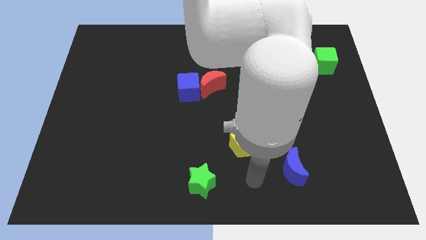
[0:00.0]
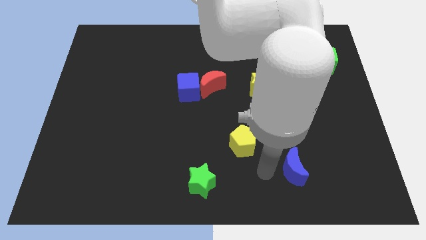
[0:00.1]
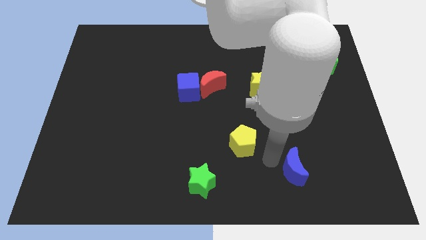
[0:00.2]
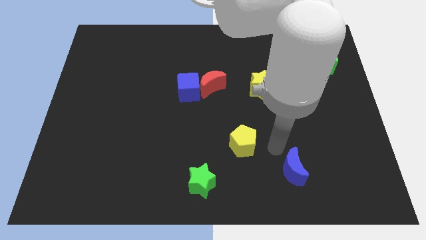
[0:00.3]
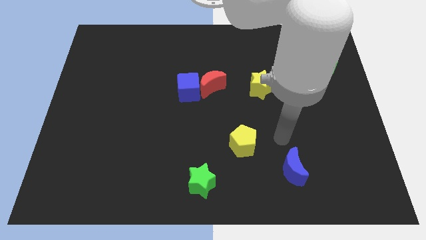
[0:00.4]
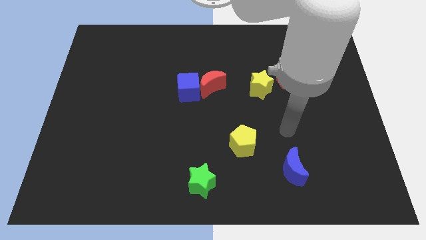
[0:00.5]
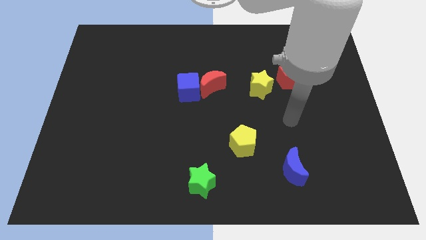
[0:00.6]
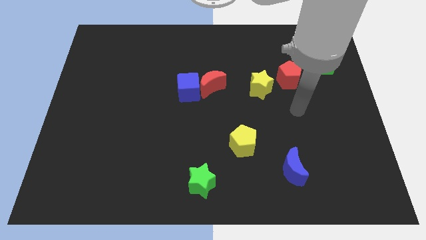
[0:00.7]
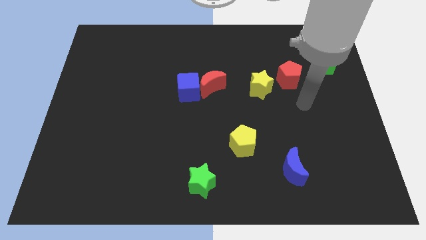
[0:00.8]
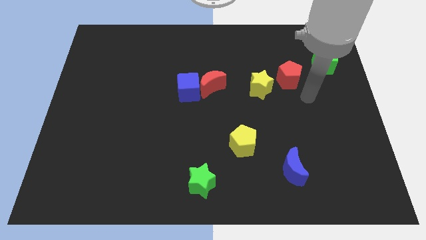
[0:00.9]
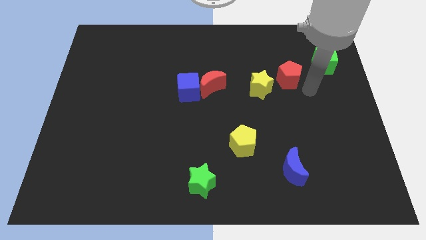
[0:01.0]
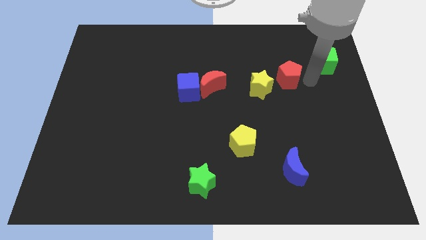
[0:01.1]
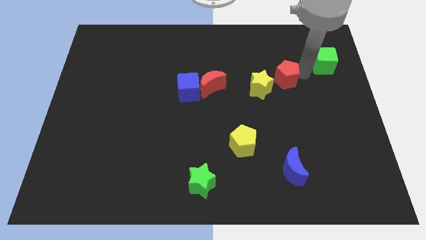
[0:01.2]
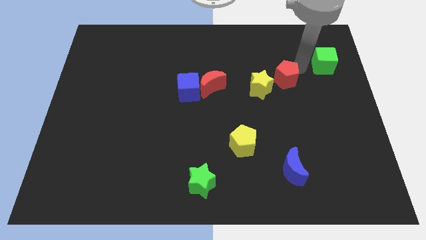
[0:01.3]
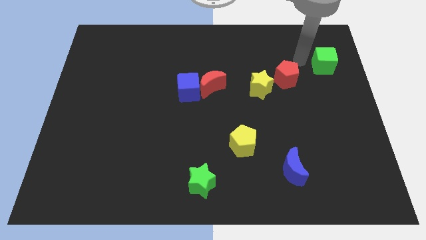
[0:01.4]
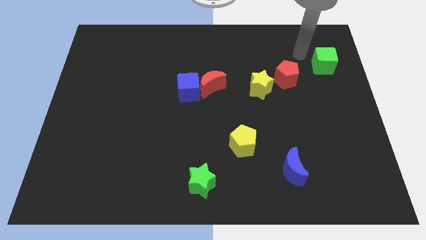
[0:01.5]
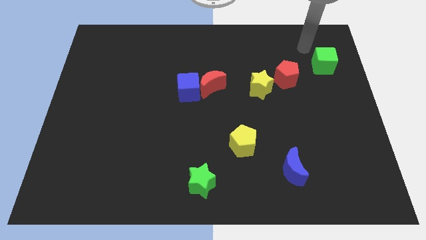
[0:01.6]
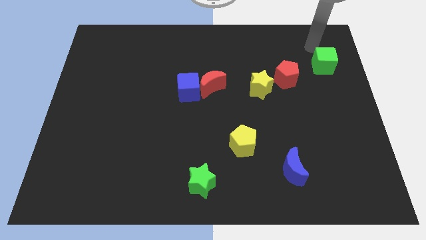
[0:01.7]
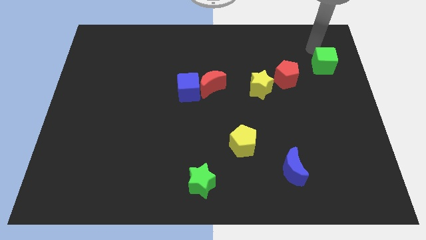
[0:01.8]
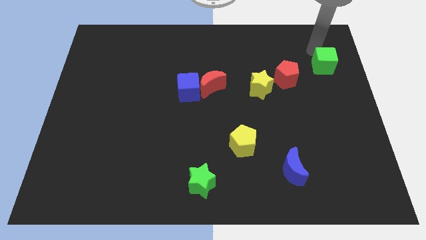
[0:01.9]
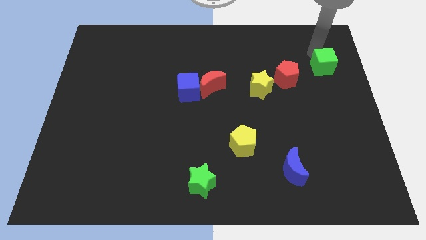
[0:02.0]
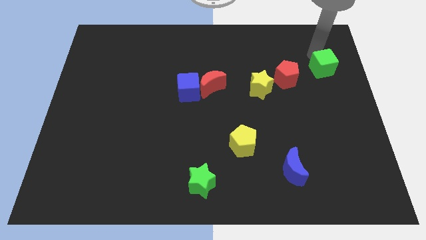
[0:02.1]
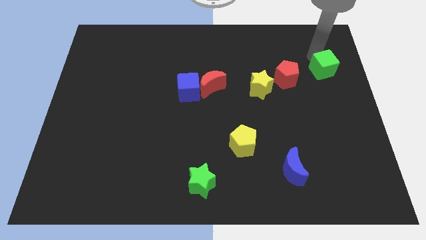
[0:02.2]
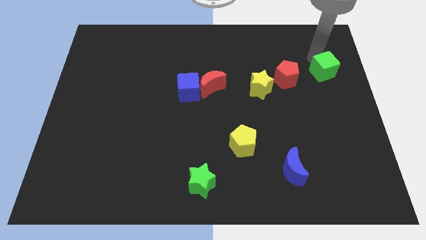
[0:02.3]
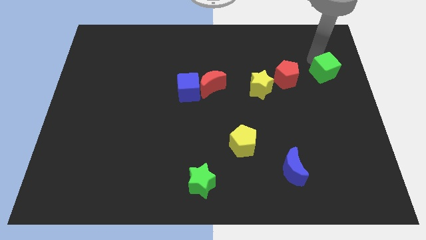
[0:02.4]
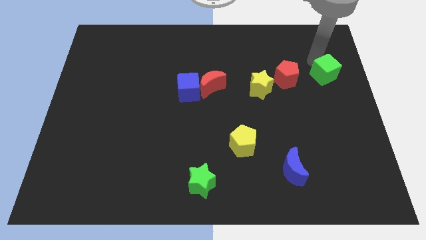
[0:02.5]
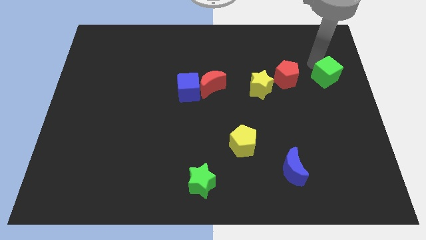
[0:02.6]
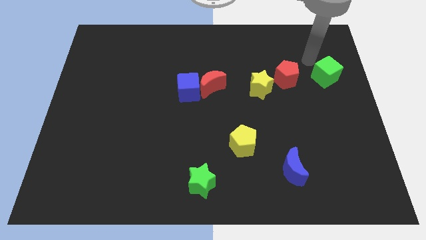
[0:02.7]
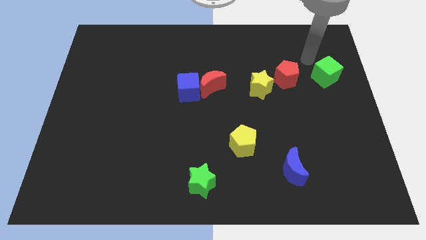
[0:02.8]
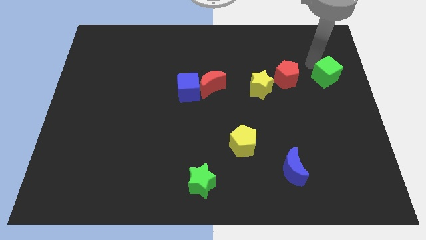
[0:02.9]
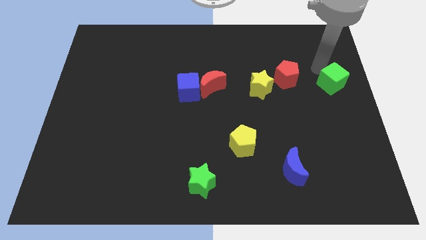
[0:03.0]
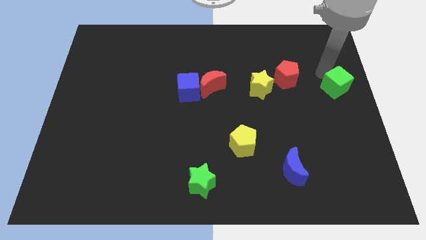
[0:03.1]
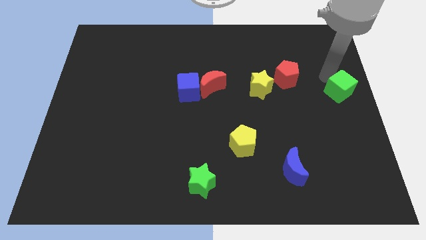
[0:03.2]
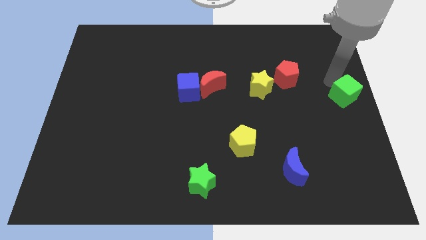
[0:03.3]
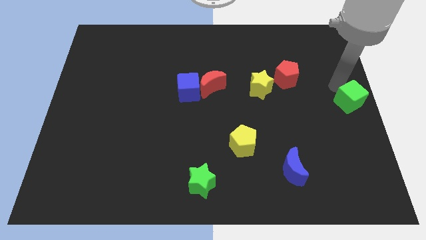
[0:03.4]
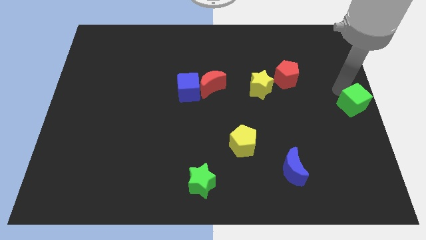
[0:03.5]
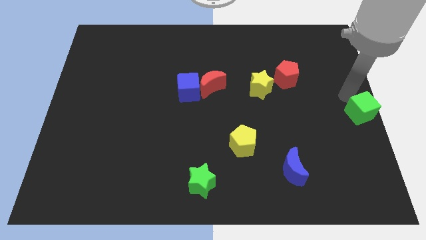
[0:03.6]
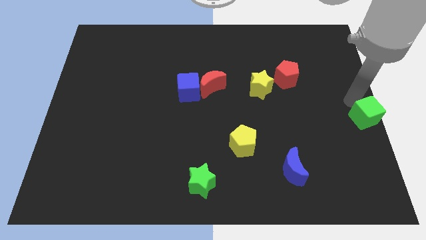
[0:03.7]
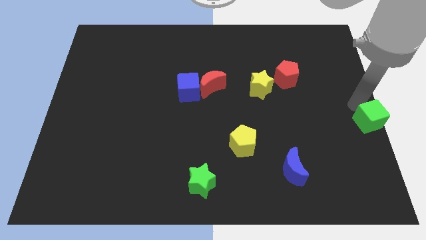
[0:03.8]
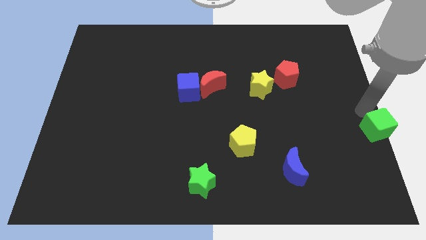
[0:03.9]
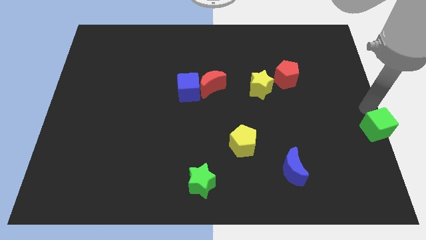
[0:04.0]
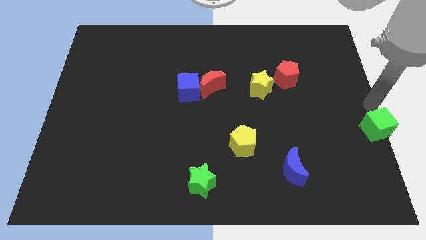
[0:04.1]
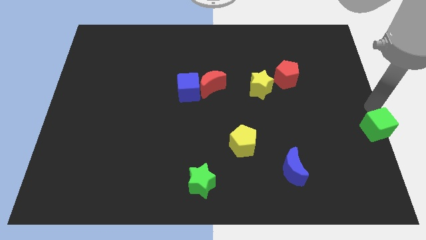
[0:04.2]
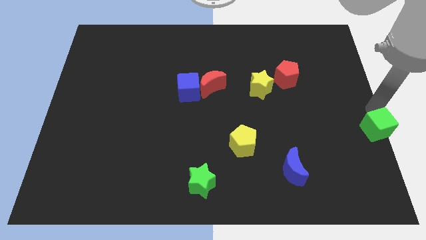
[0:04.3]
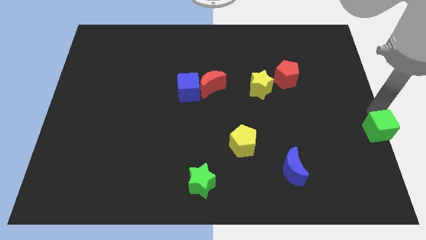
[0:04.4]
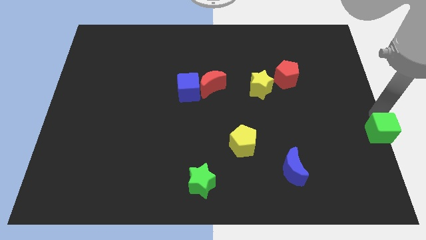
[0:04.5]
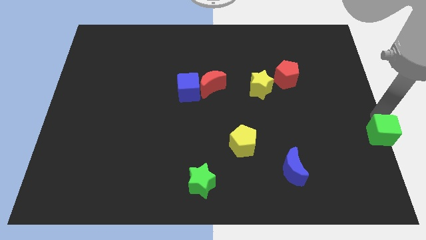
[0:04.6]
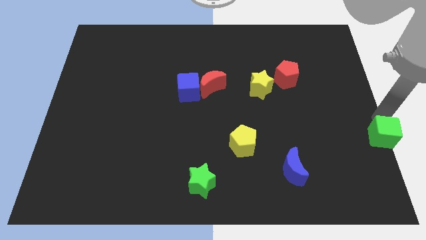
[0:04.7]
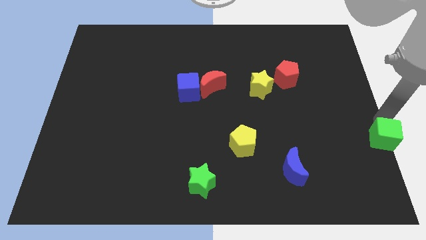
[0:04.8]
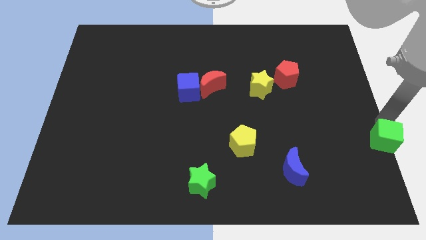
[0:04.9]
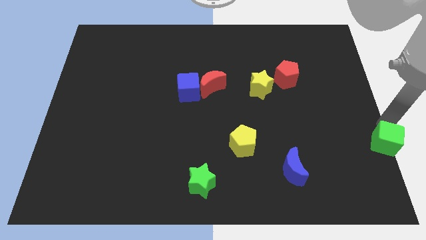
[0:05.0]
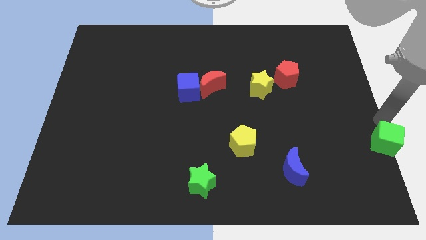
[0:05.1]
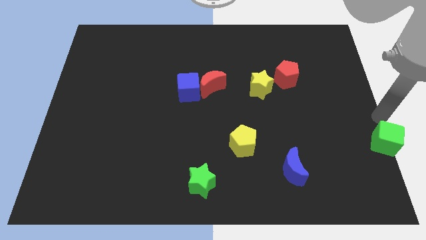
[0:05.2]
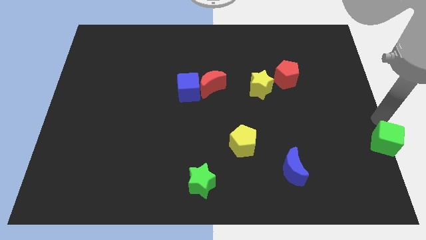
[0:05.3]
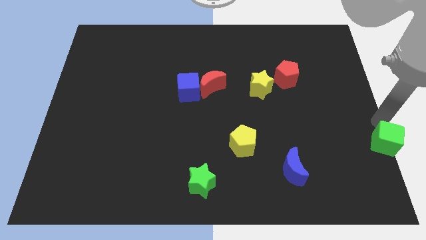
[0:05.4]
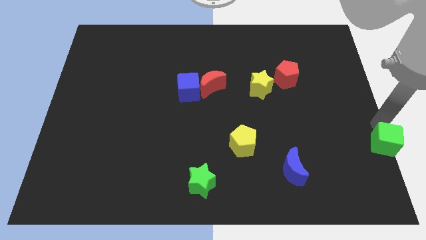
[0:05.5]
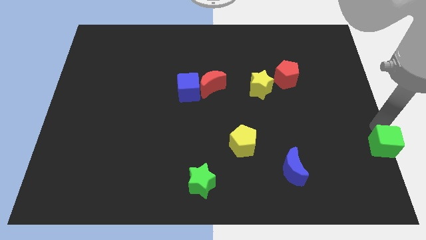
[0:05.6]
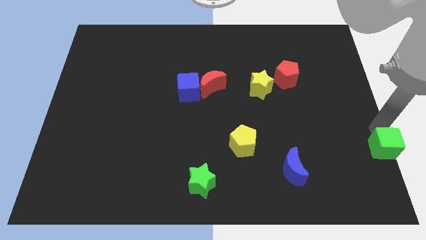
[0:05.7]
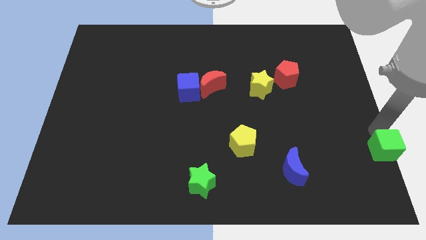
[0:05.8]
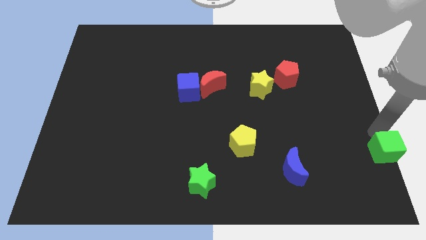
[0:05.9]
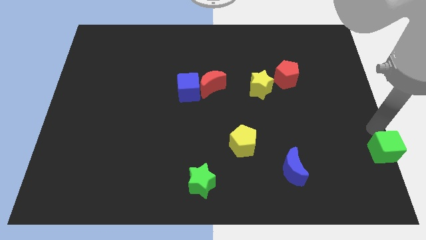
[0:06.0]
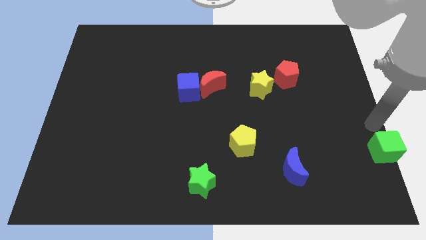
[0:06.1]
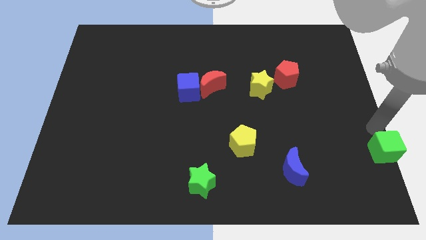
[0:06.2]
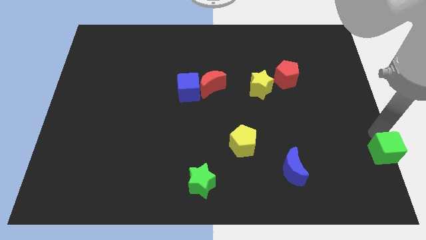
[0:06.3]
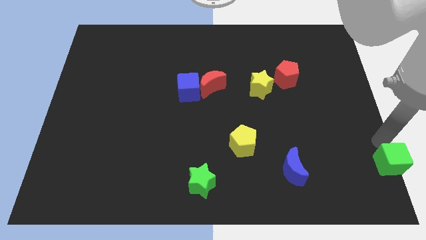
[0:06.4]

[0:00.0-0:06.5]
put the green cube to the lower right corner
